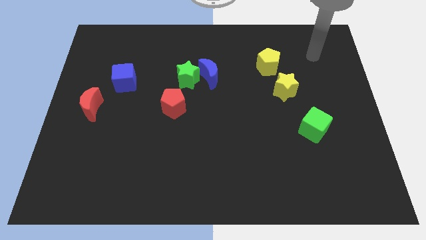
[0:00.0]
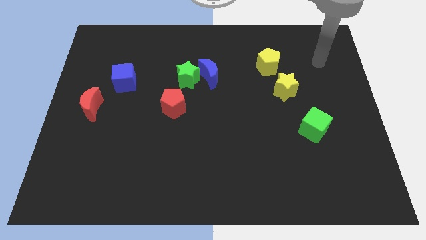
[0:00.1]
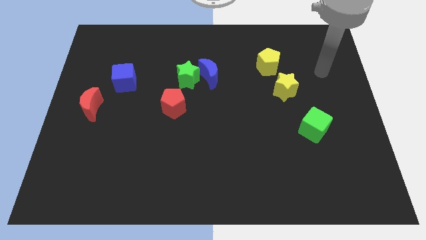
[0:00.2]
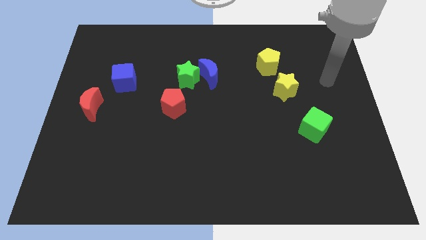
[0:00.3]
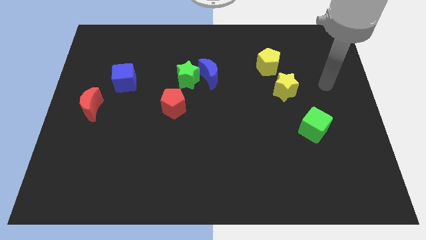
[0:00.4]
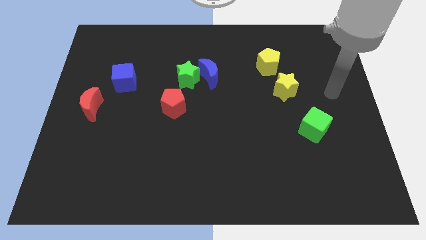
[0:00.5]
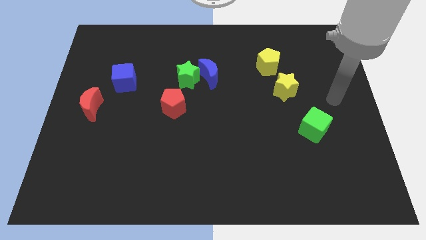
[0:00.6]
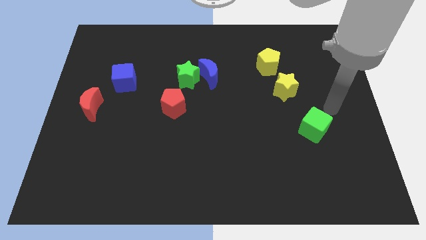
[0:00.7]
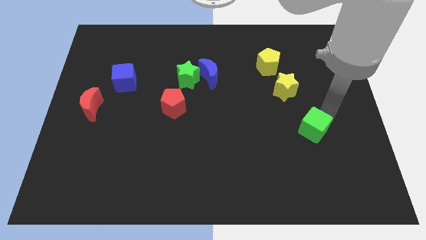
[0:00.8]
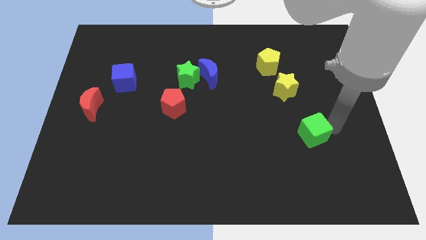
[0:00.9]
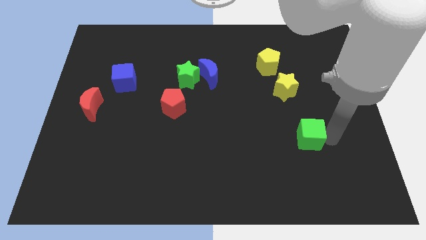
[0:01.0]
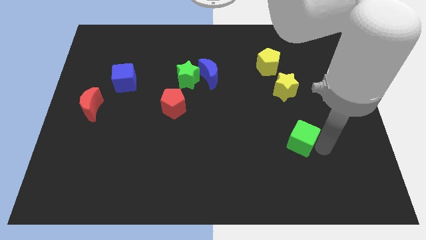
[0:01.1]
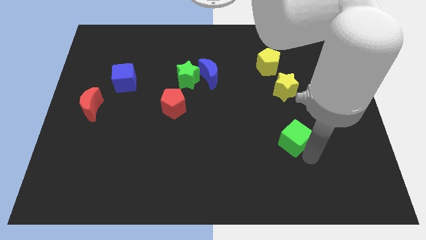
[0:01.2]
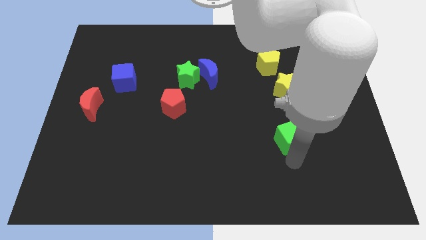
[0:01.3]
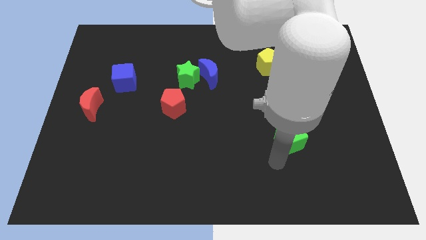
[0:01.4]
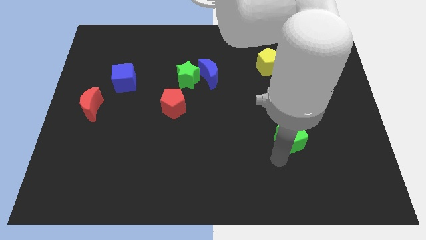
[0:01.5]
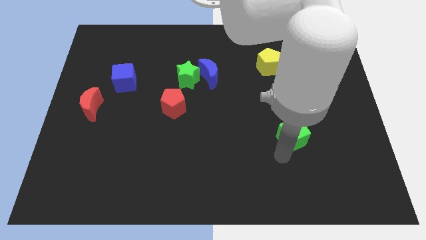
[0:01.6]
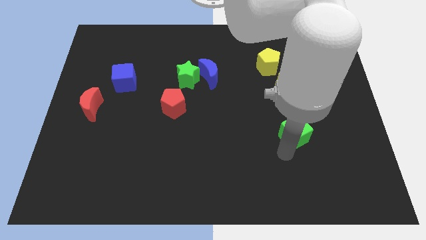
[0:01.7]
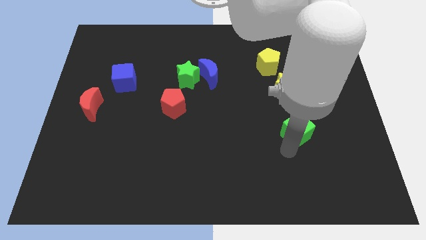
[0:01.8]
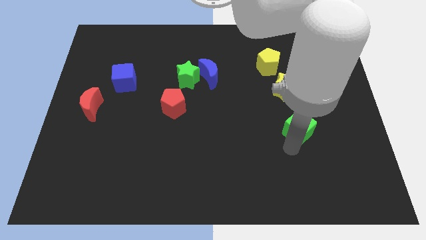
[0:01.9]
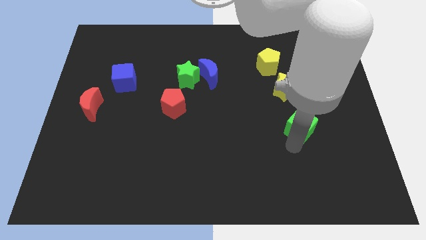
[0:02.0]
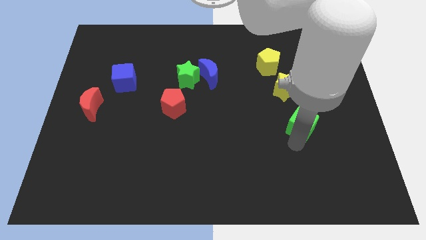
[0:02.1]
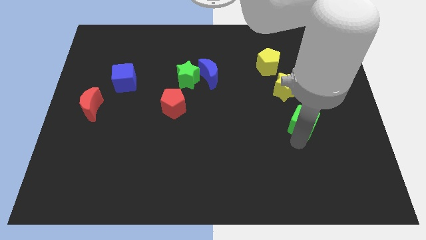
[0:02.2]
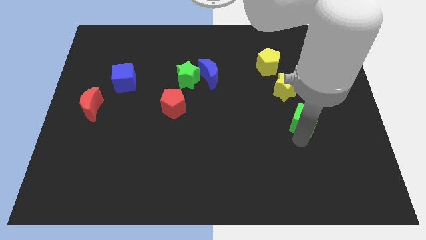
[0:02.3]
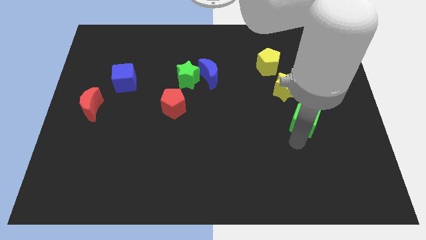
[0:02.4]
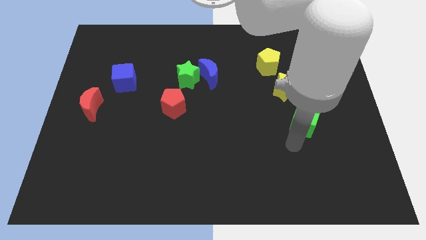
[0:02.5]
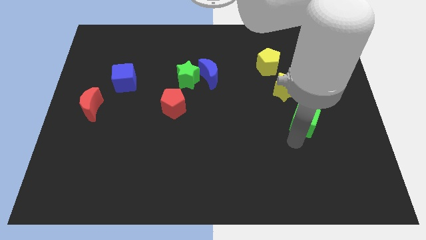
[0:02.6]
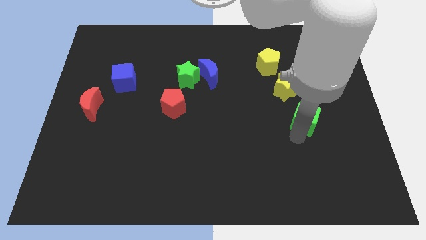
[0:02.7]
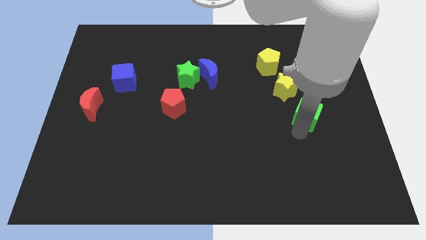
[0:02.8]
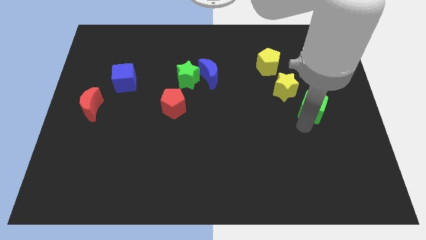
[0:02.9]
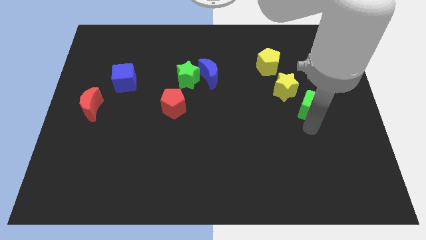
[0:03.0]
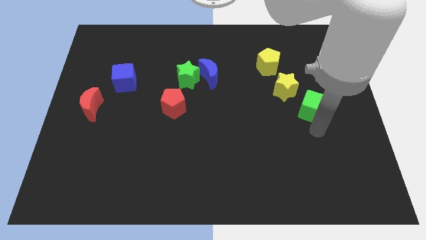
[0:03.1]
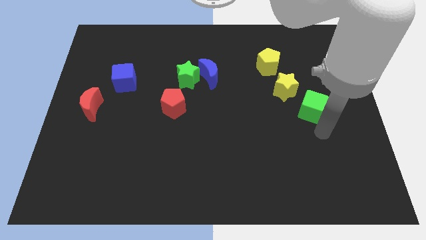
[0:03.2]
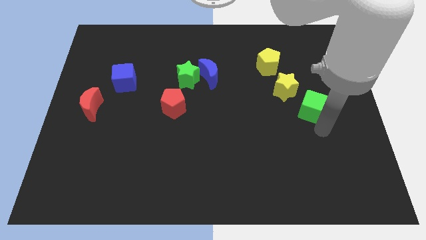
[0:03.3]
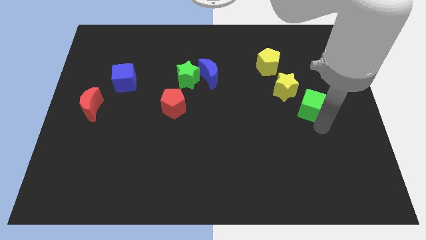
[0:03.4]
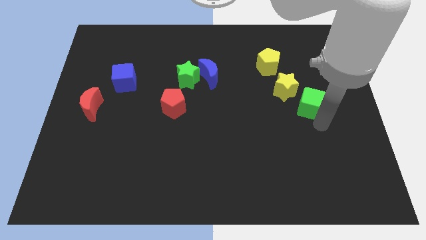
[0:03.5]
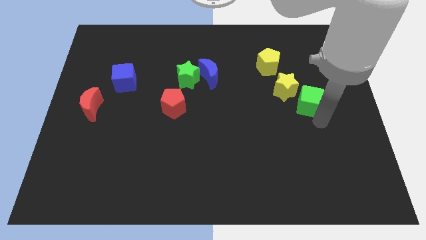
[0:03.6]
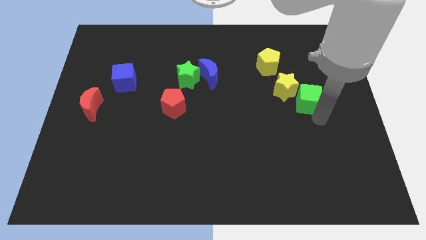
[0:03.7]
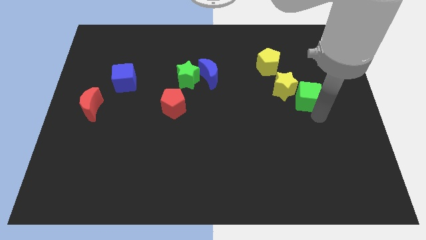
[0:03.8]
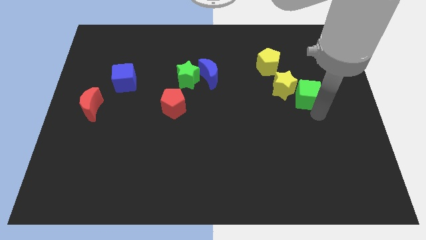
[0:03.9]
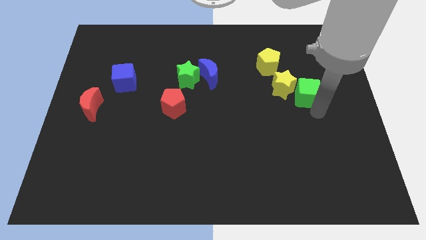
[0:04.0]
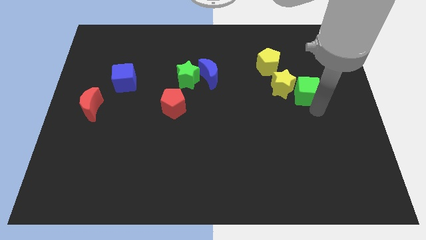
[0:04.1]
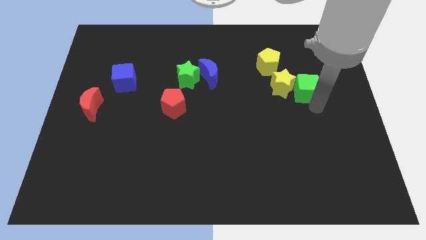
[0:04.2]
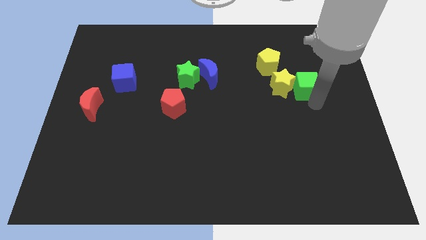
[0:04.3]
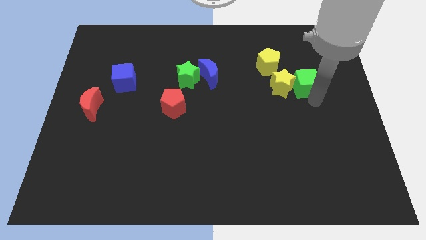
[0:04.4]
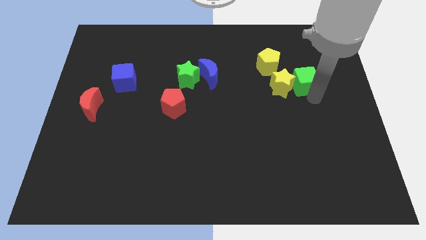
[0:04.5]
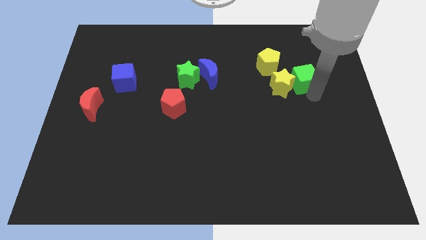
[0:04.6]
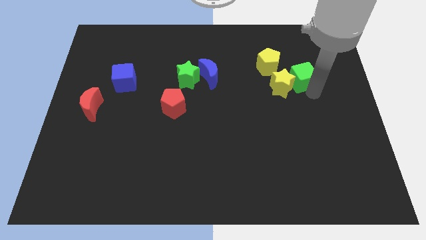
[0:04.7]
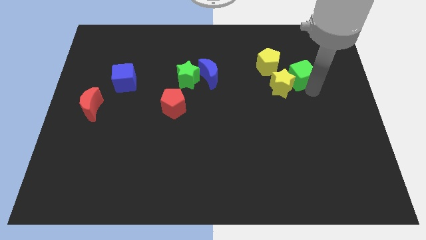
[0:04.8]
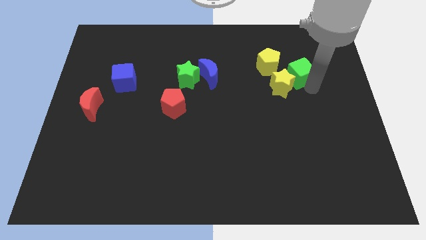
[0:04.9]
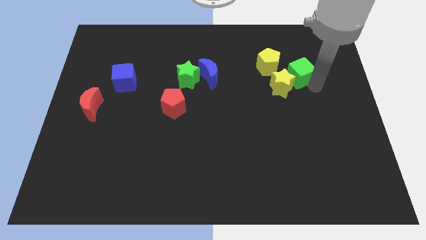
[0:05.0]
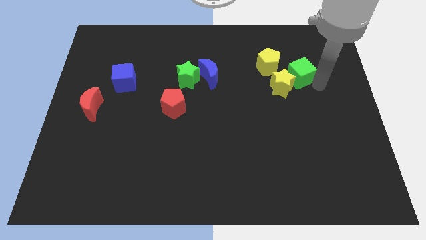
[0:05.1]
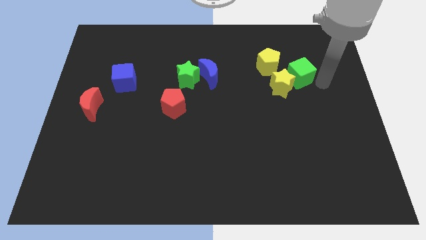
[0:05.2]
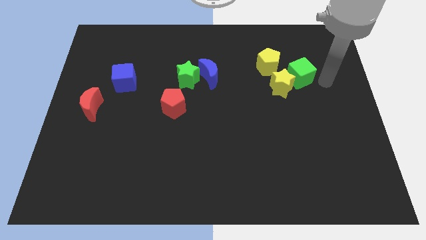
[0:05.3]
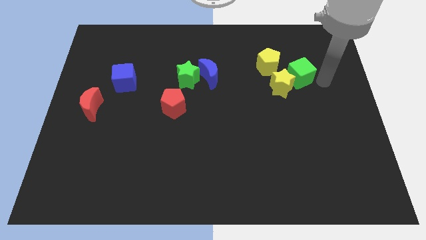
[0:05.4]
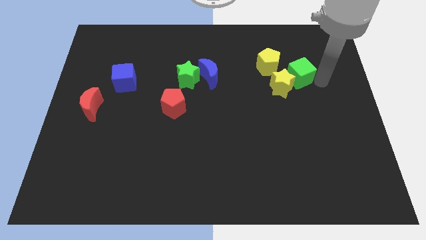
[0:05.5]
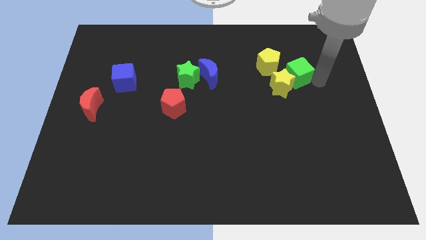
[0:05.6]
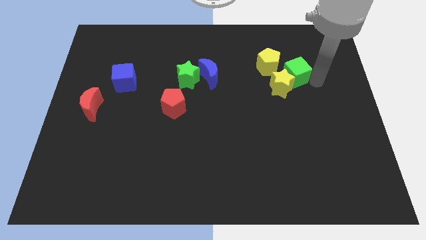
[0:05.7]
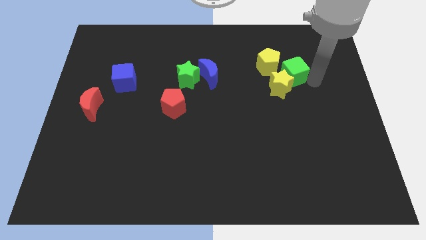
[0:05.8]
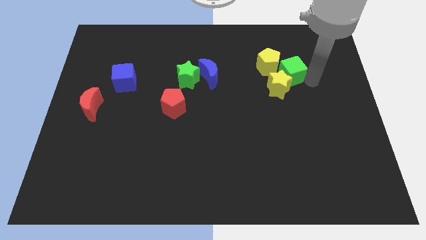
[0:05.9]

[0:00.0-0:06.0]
move the green cube close to the yellow pentagon

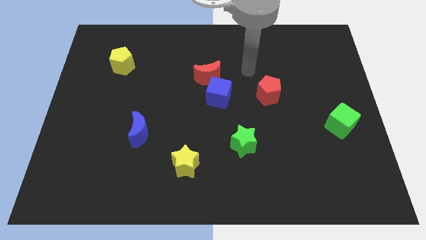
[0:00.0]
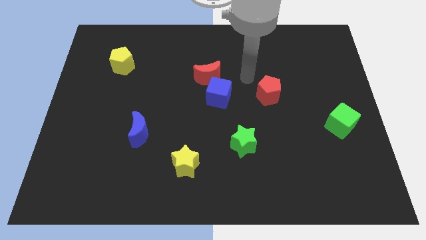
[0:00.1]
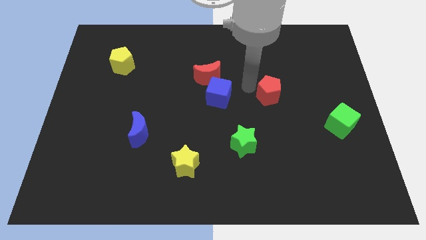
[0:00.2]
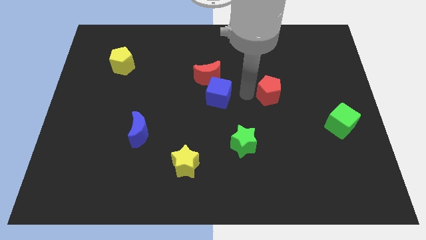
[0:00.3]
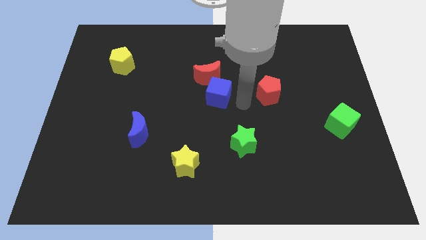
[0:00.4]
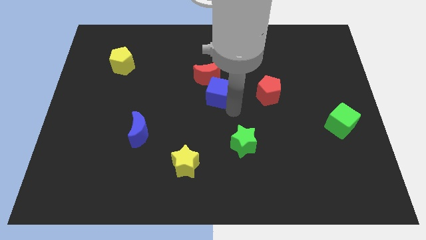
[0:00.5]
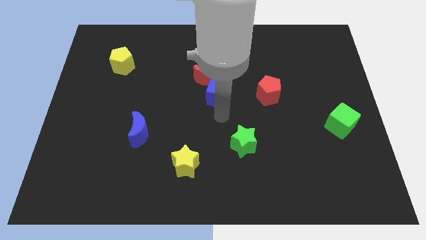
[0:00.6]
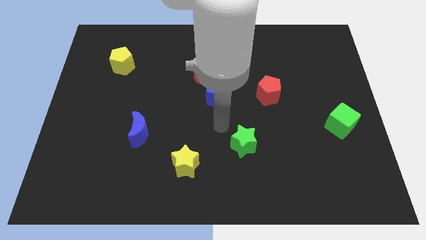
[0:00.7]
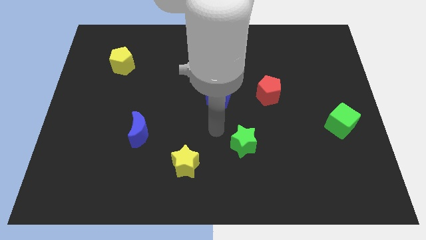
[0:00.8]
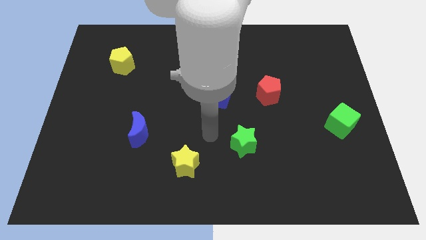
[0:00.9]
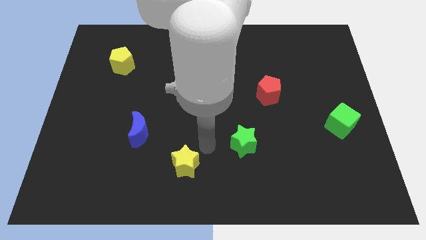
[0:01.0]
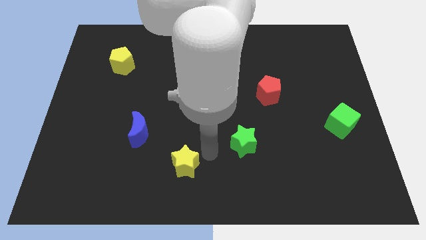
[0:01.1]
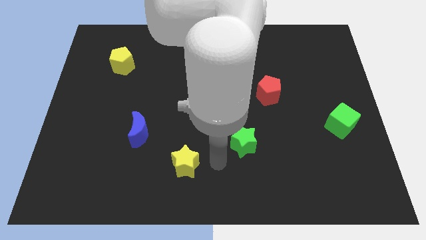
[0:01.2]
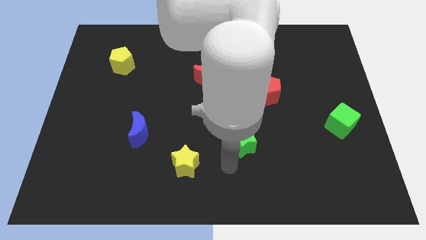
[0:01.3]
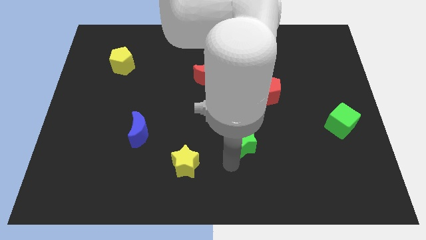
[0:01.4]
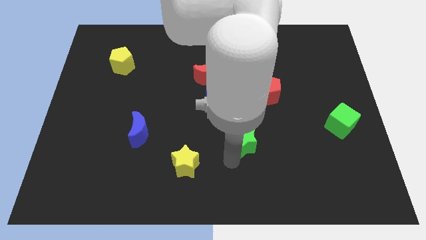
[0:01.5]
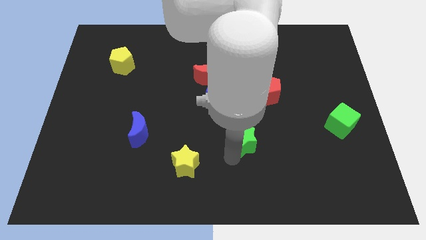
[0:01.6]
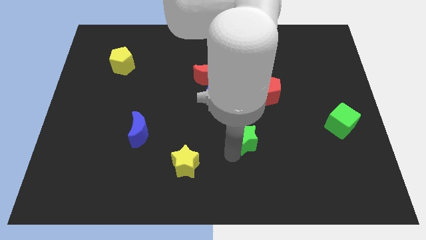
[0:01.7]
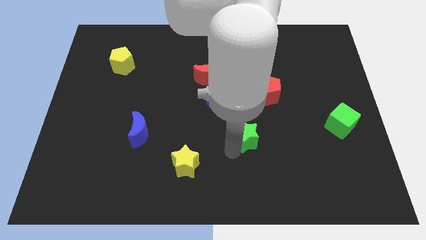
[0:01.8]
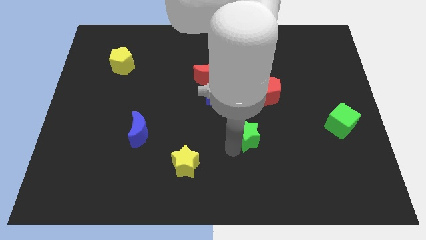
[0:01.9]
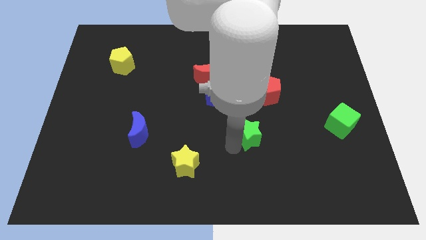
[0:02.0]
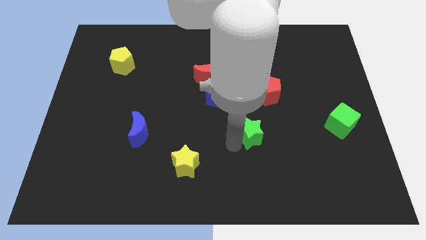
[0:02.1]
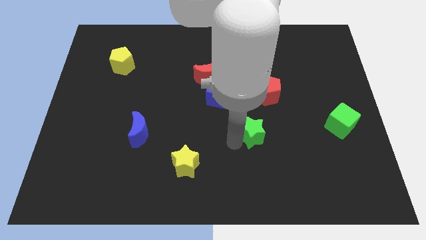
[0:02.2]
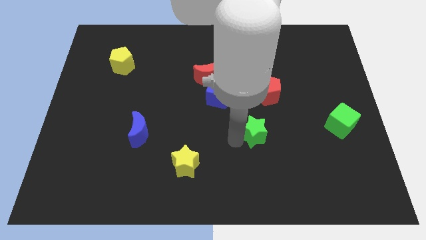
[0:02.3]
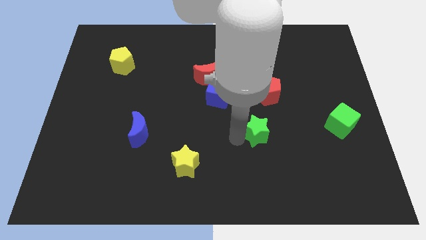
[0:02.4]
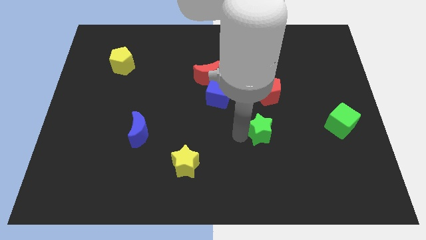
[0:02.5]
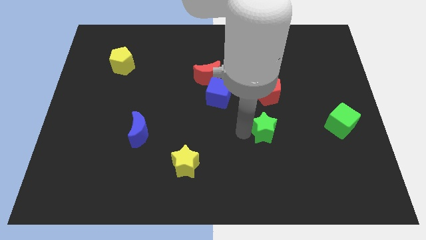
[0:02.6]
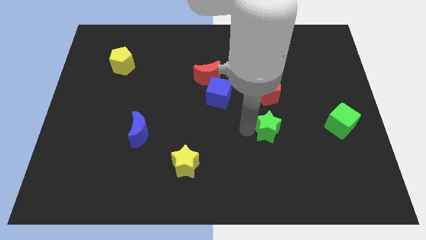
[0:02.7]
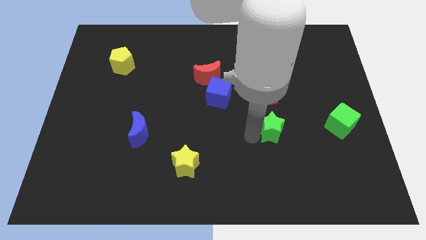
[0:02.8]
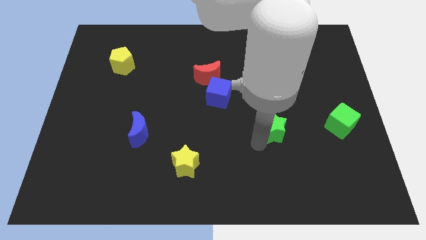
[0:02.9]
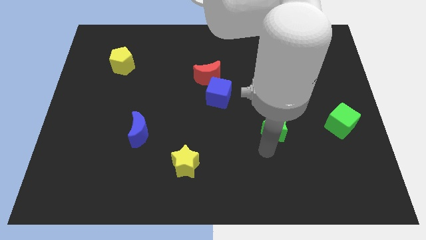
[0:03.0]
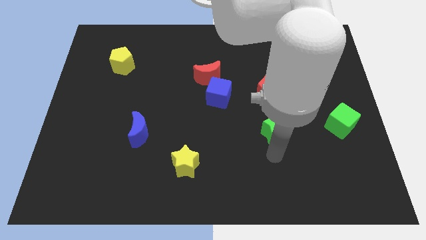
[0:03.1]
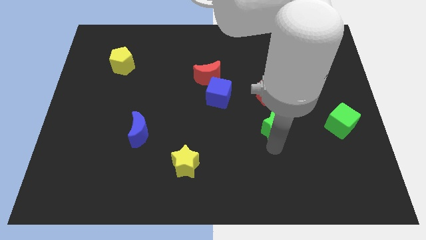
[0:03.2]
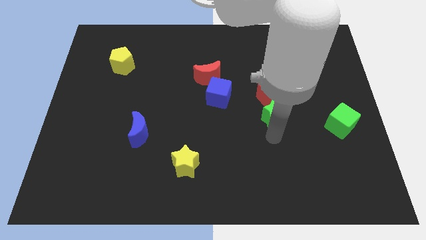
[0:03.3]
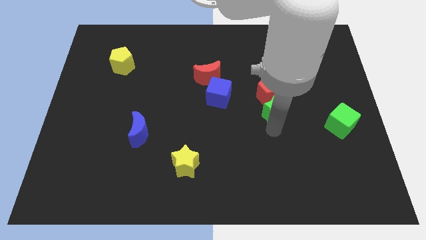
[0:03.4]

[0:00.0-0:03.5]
put the green star to the red pentagon
